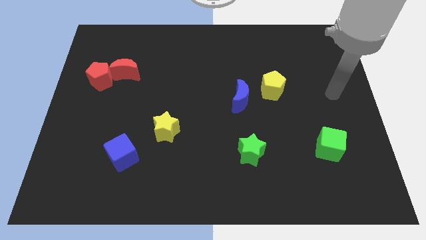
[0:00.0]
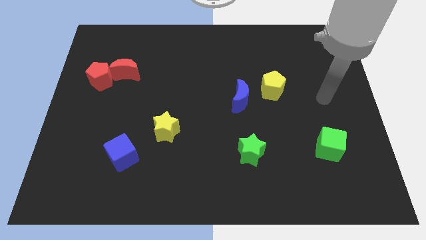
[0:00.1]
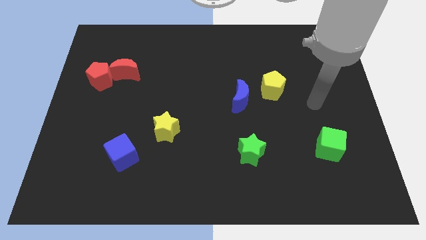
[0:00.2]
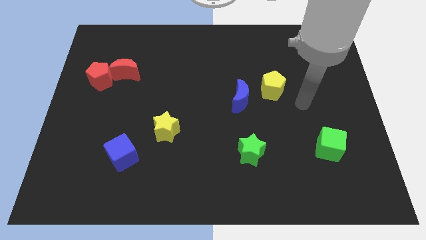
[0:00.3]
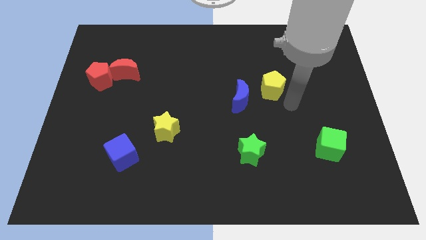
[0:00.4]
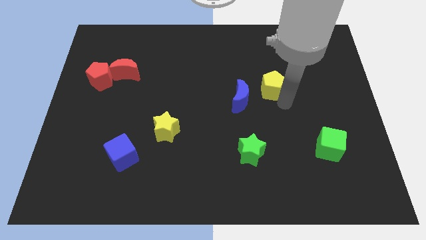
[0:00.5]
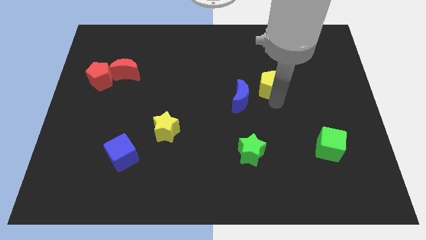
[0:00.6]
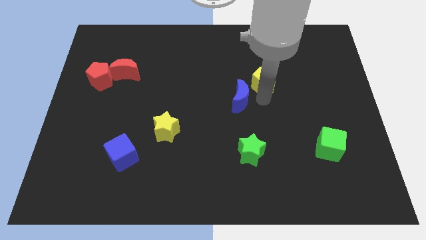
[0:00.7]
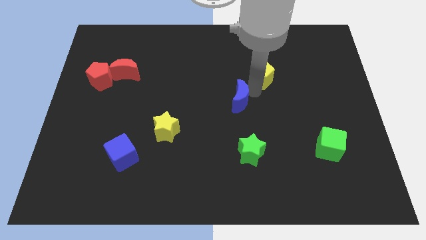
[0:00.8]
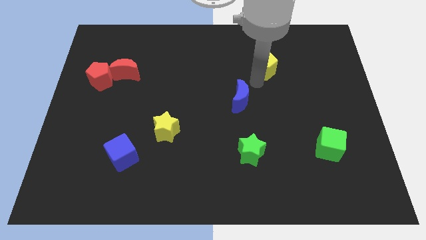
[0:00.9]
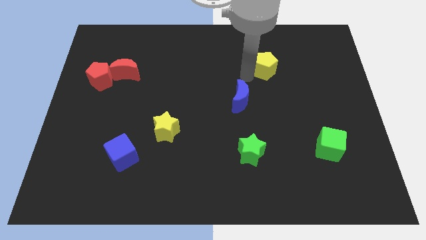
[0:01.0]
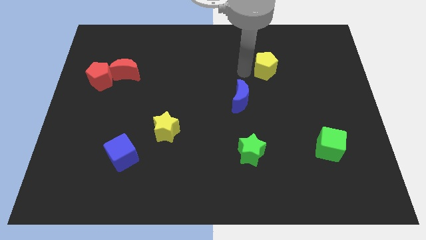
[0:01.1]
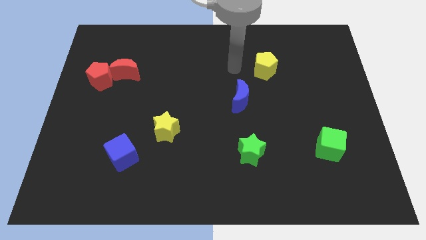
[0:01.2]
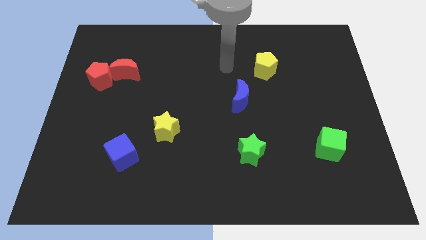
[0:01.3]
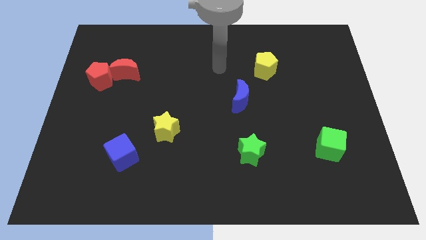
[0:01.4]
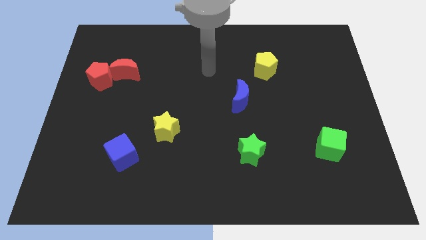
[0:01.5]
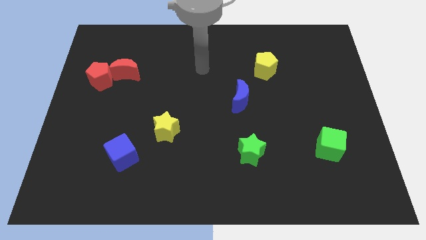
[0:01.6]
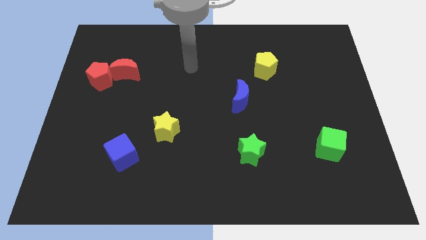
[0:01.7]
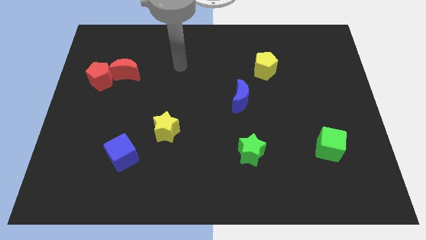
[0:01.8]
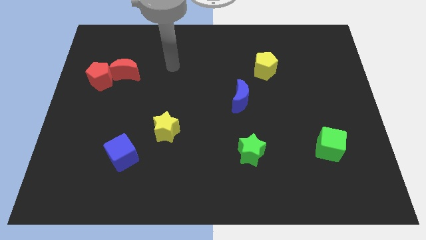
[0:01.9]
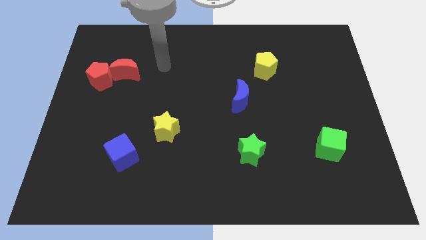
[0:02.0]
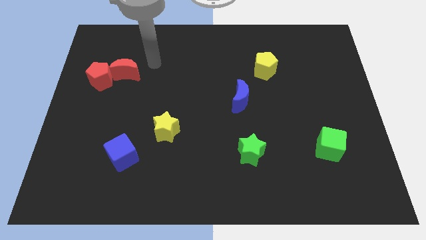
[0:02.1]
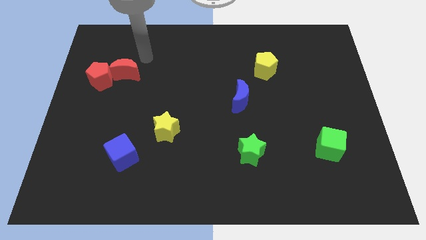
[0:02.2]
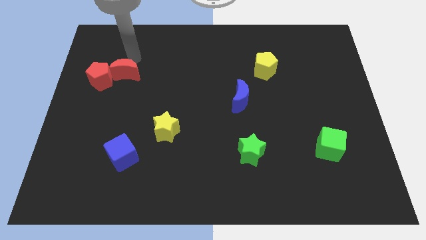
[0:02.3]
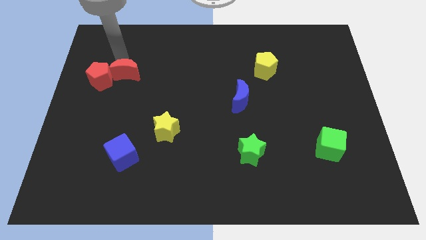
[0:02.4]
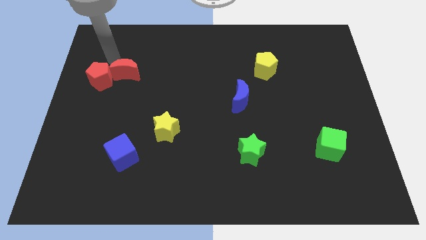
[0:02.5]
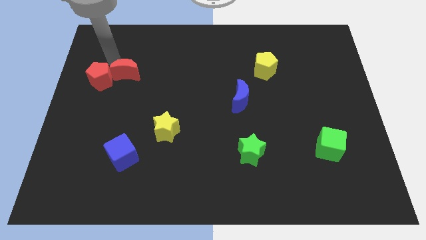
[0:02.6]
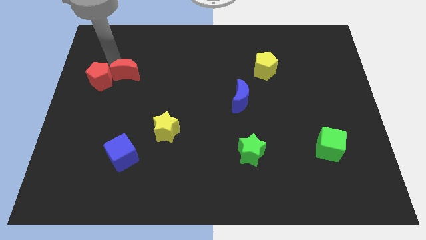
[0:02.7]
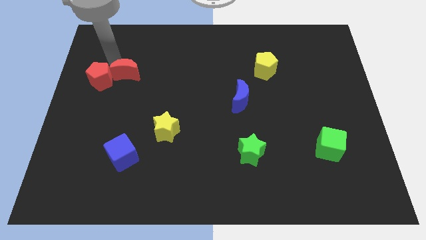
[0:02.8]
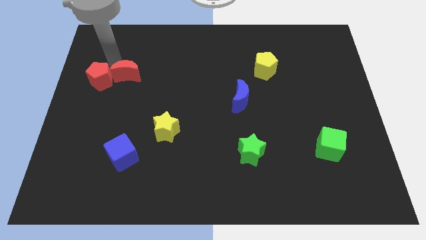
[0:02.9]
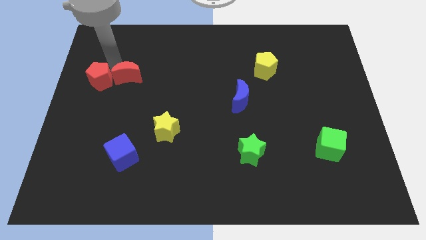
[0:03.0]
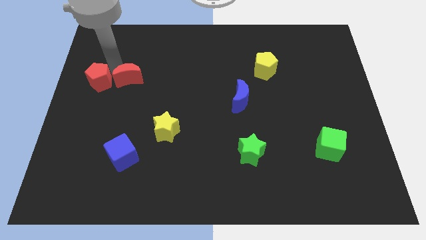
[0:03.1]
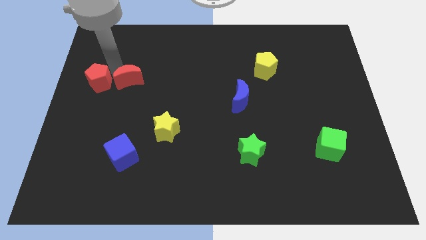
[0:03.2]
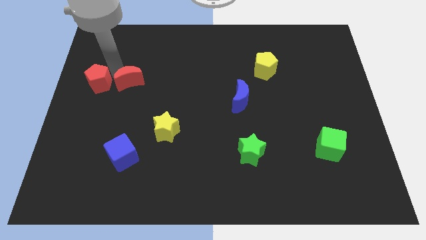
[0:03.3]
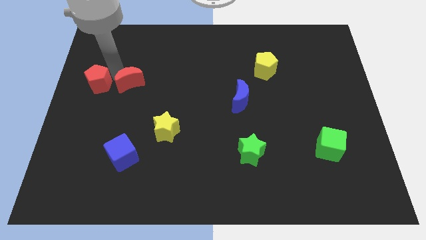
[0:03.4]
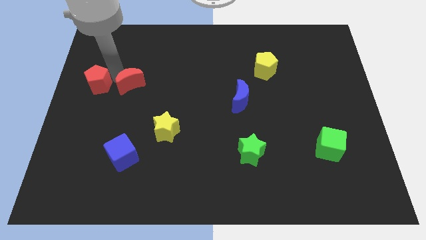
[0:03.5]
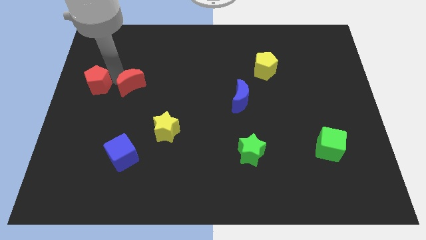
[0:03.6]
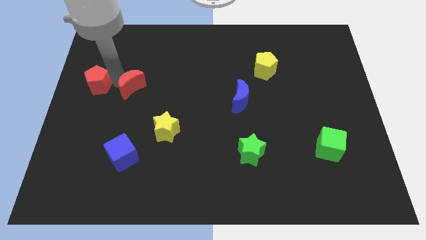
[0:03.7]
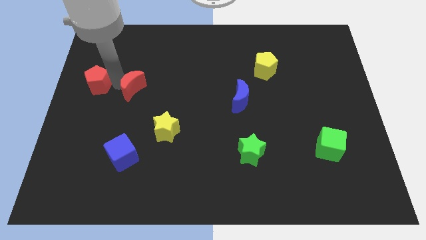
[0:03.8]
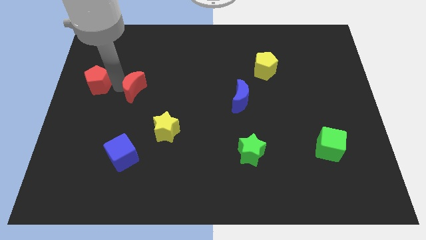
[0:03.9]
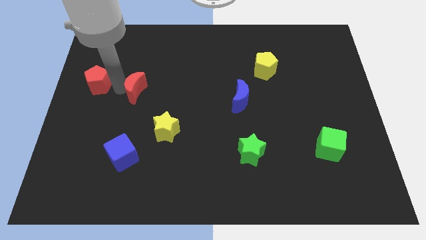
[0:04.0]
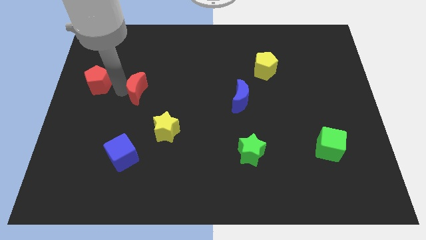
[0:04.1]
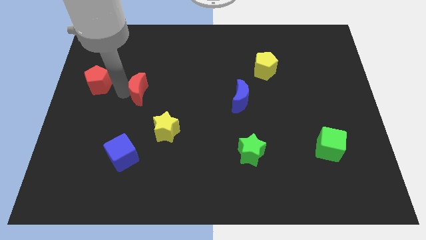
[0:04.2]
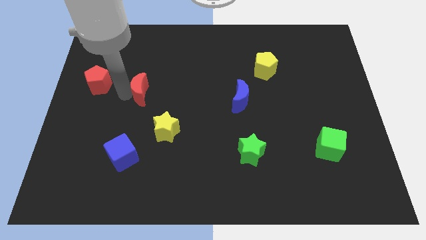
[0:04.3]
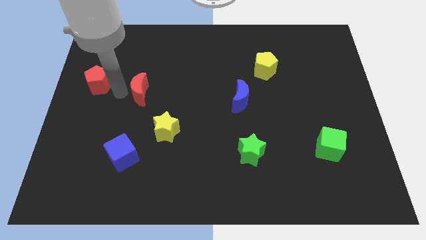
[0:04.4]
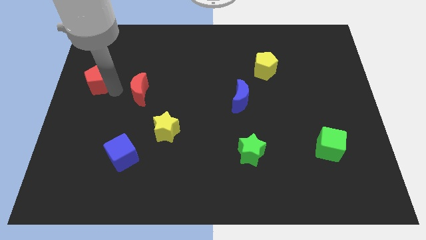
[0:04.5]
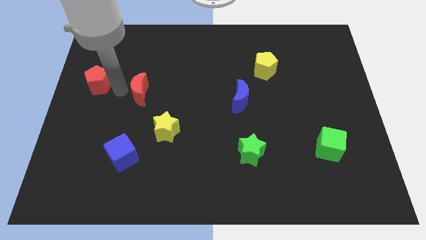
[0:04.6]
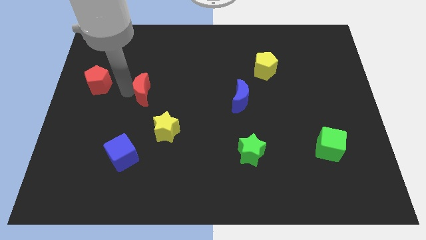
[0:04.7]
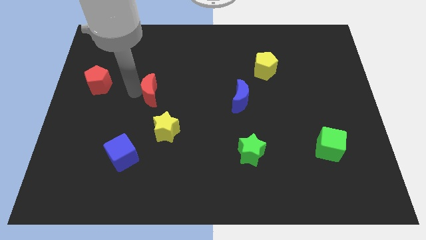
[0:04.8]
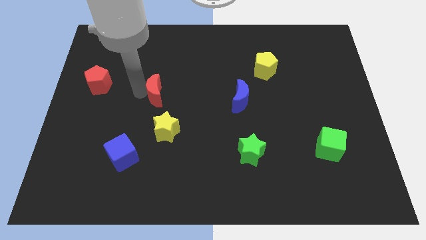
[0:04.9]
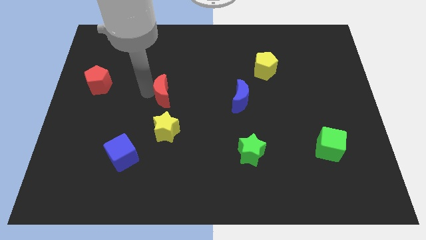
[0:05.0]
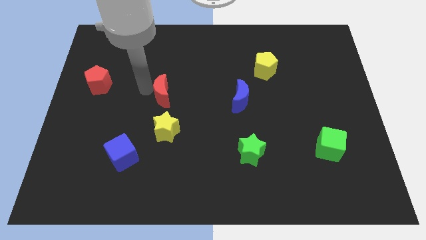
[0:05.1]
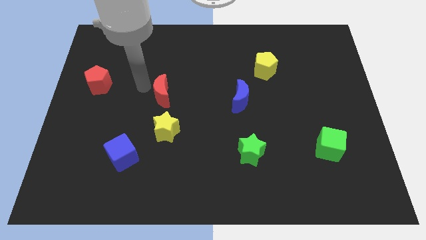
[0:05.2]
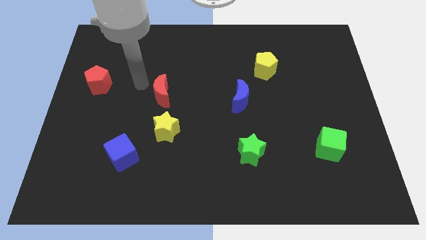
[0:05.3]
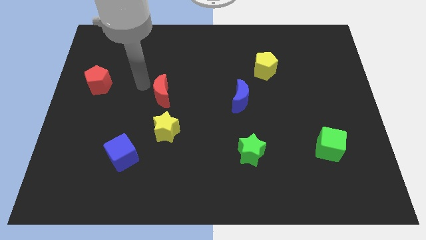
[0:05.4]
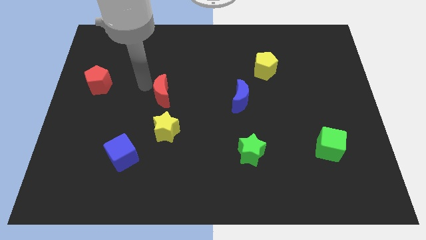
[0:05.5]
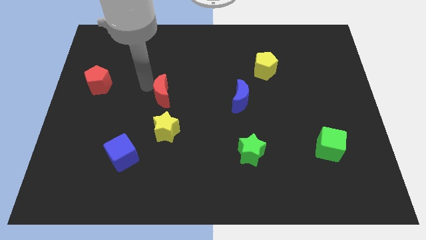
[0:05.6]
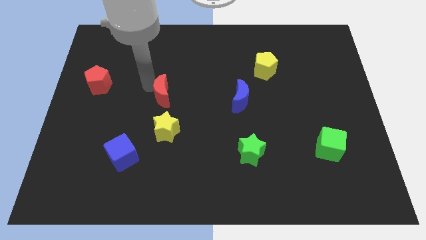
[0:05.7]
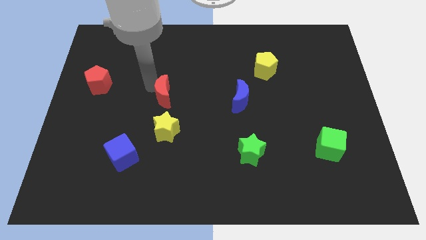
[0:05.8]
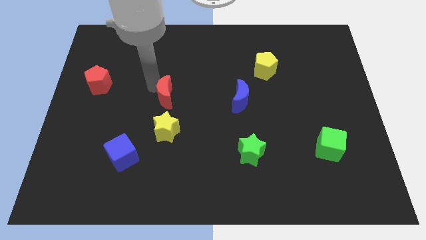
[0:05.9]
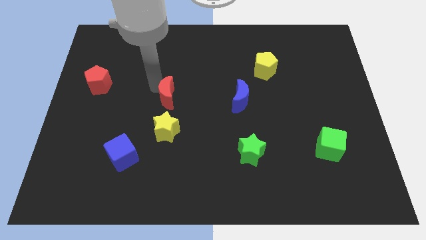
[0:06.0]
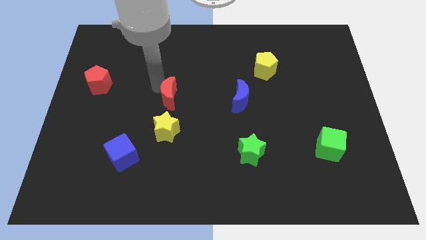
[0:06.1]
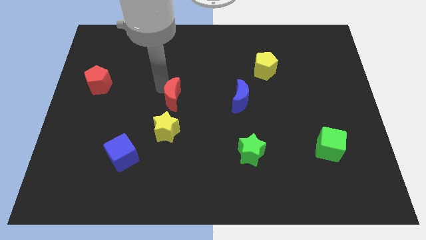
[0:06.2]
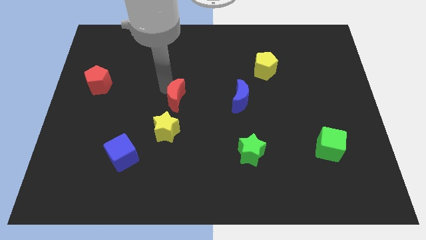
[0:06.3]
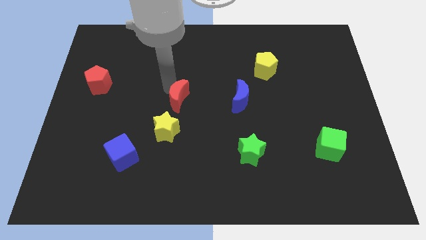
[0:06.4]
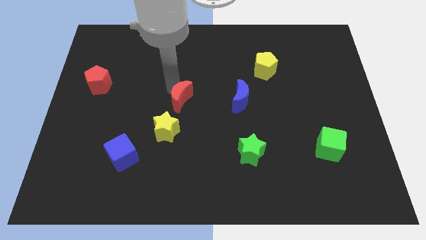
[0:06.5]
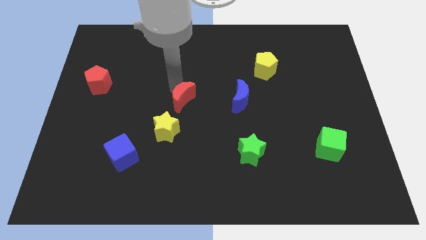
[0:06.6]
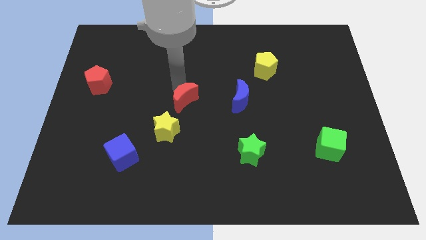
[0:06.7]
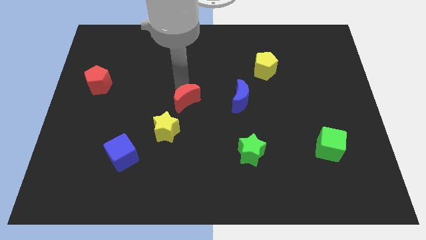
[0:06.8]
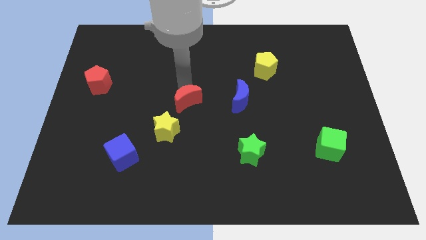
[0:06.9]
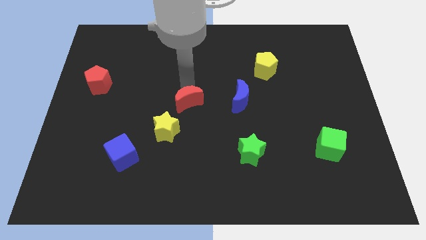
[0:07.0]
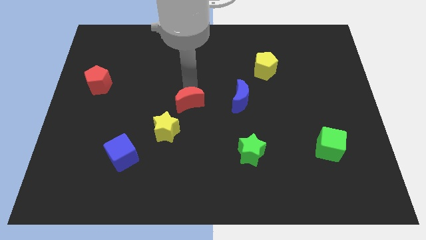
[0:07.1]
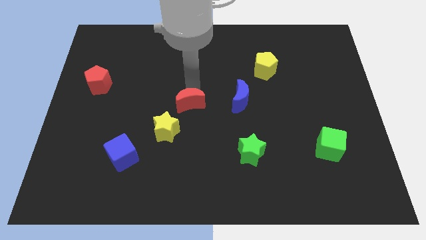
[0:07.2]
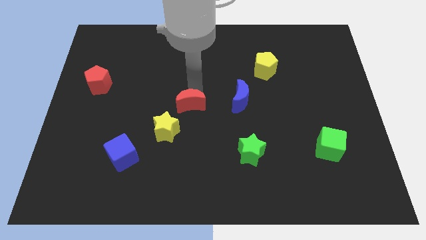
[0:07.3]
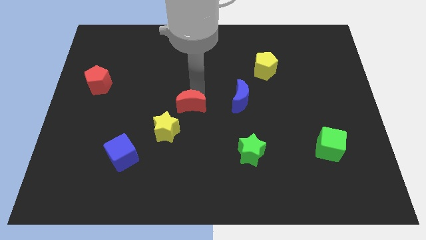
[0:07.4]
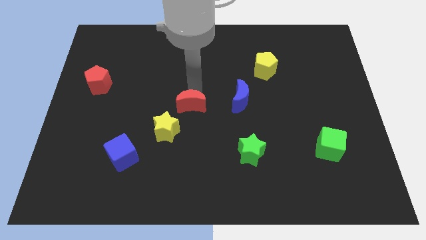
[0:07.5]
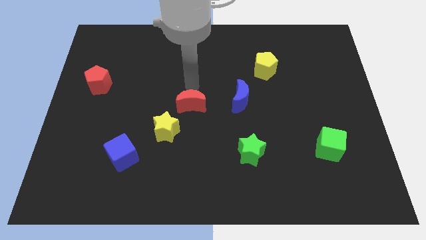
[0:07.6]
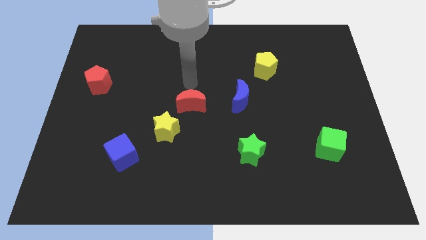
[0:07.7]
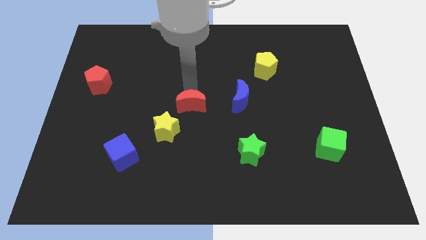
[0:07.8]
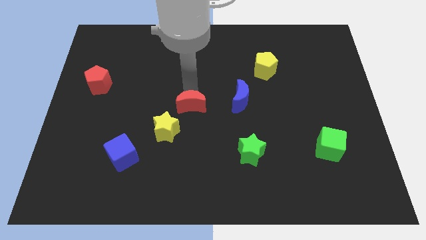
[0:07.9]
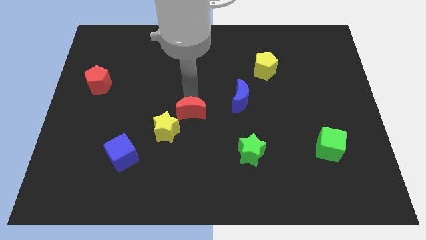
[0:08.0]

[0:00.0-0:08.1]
move the red moon downwards and then to the right
